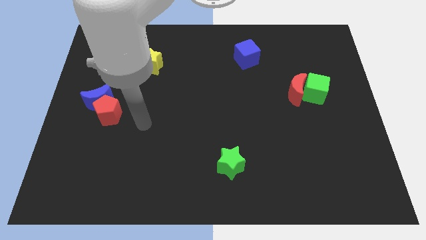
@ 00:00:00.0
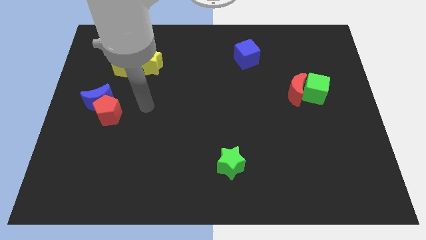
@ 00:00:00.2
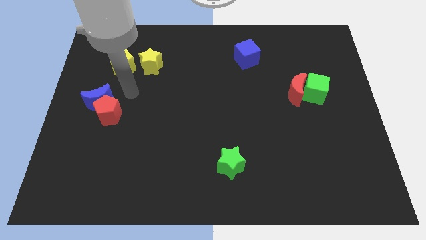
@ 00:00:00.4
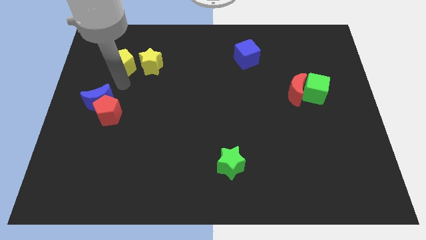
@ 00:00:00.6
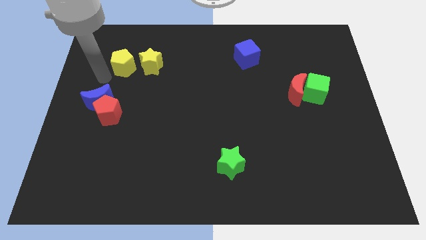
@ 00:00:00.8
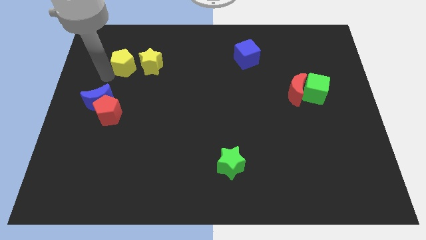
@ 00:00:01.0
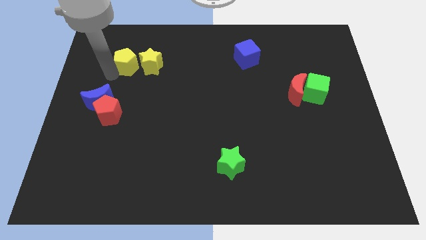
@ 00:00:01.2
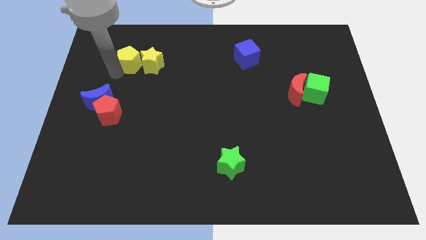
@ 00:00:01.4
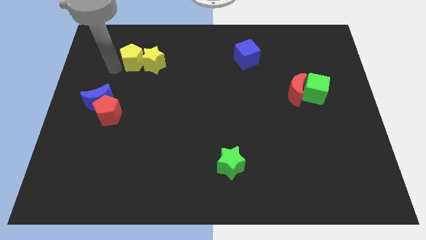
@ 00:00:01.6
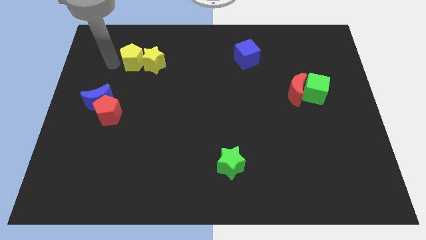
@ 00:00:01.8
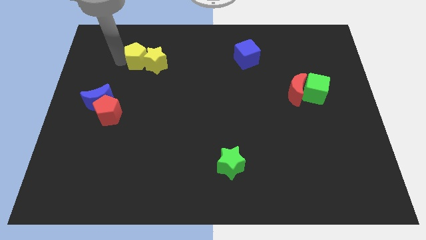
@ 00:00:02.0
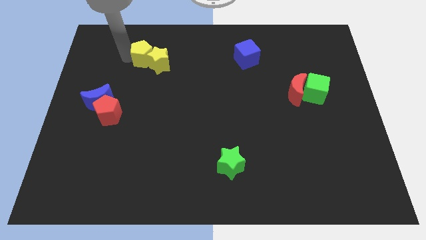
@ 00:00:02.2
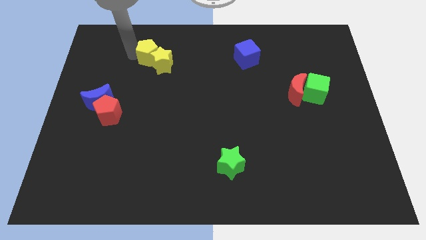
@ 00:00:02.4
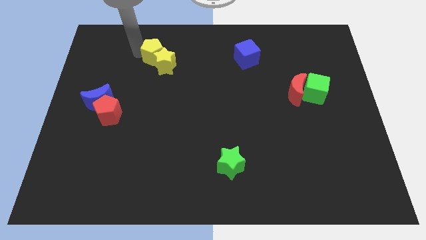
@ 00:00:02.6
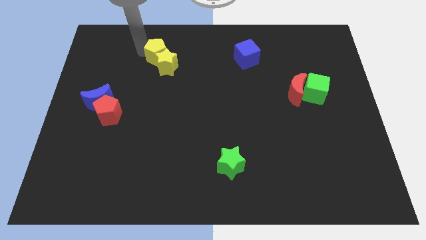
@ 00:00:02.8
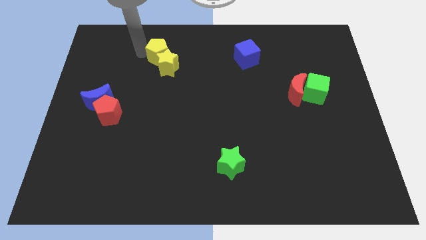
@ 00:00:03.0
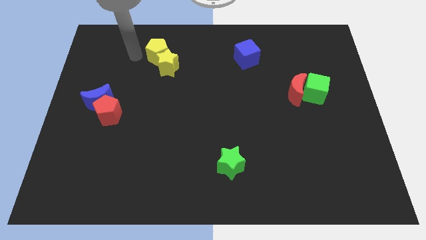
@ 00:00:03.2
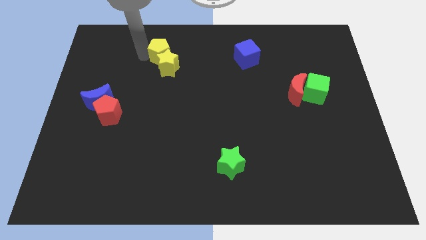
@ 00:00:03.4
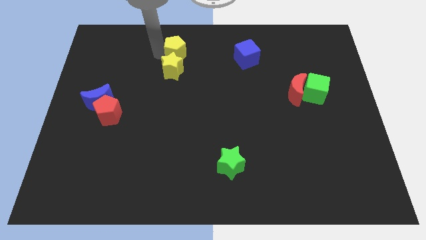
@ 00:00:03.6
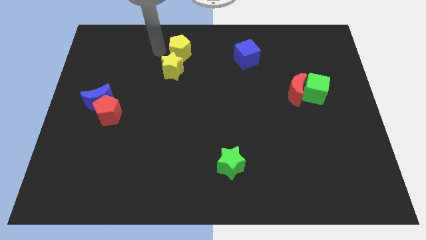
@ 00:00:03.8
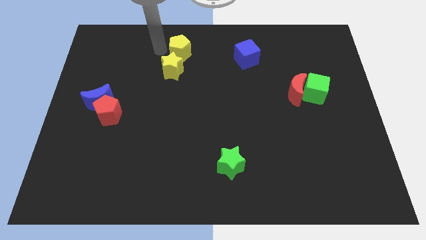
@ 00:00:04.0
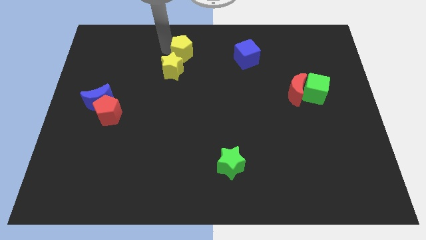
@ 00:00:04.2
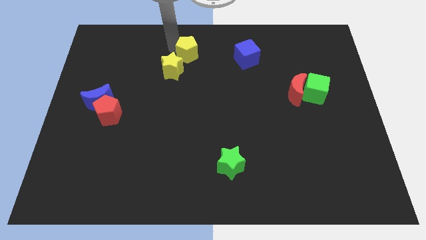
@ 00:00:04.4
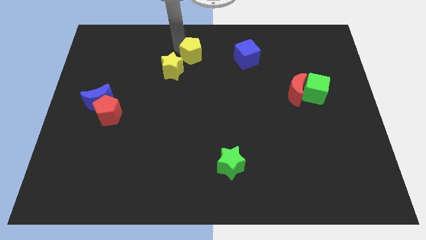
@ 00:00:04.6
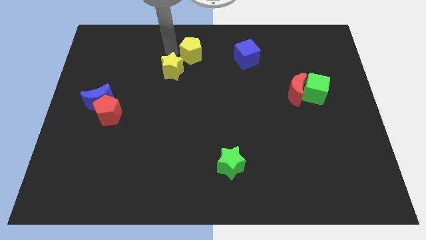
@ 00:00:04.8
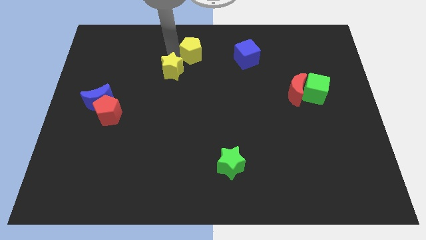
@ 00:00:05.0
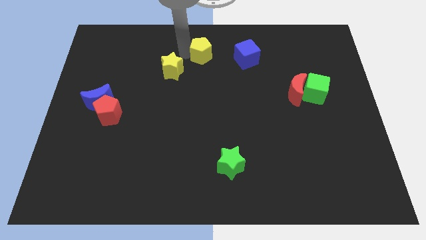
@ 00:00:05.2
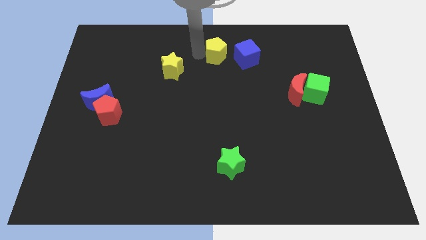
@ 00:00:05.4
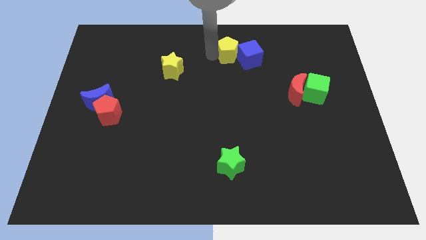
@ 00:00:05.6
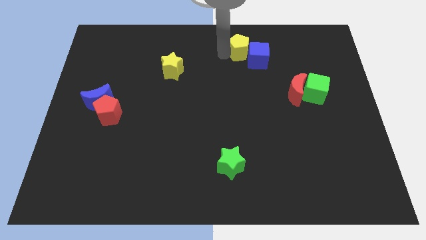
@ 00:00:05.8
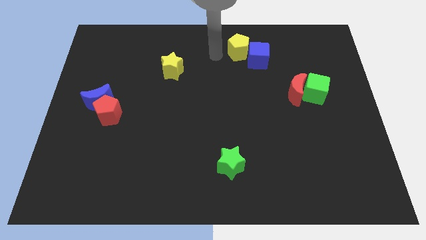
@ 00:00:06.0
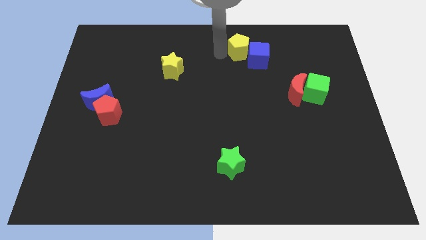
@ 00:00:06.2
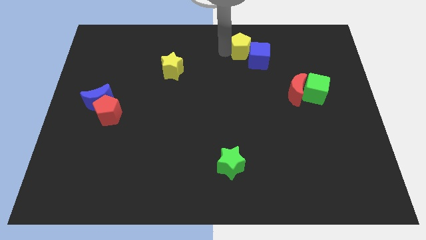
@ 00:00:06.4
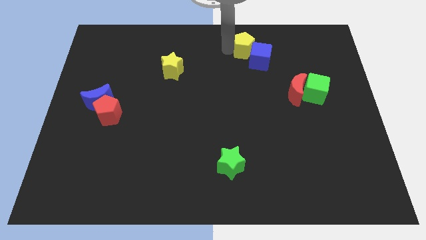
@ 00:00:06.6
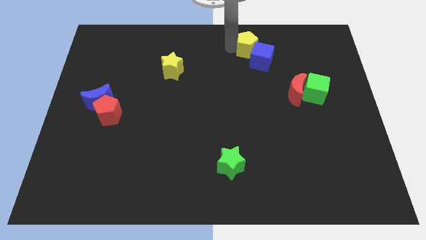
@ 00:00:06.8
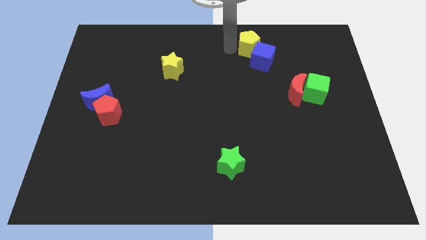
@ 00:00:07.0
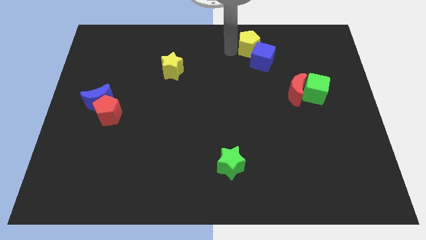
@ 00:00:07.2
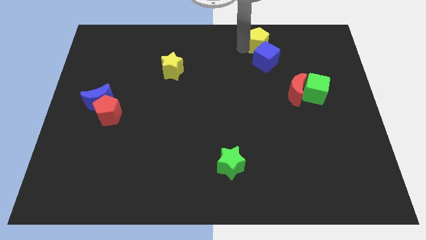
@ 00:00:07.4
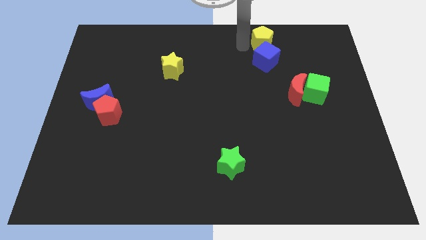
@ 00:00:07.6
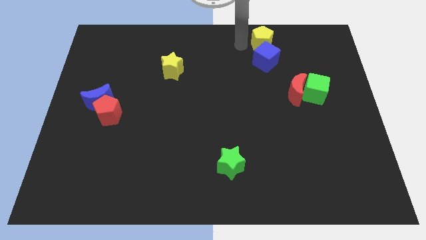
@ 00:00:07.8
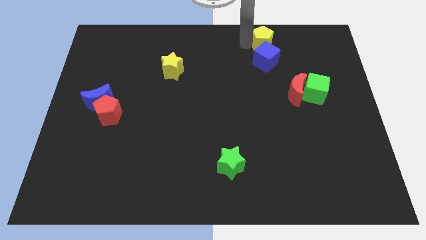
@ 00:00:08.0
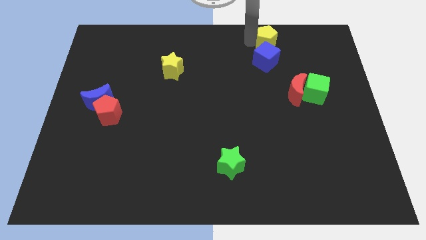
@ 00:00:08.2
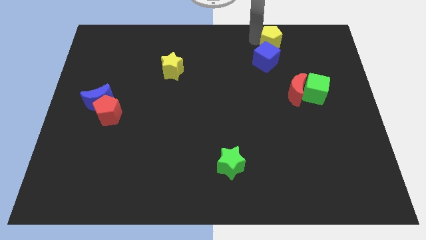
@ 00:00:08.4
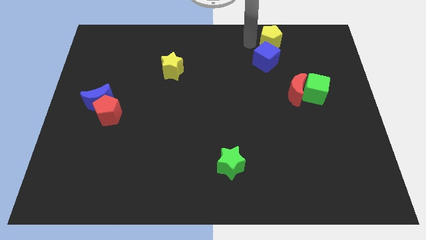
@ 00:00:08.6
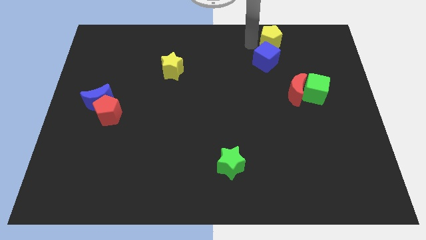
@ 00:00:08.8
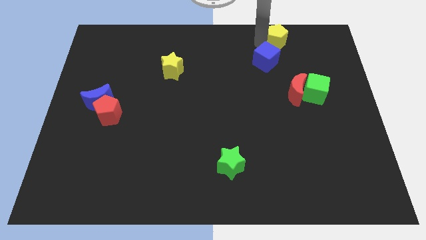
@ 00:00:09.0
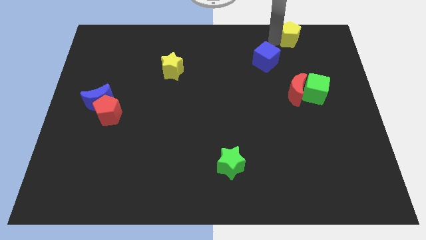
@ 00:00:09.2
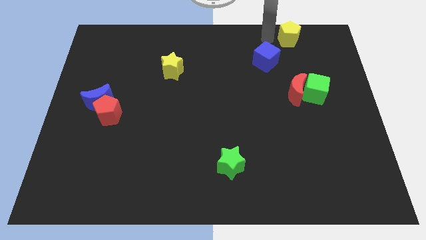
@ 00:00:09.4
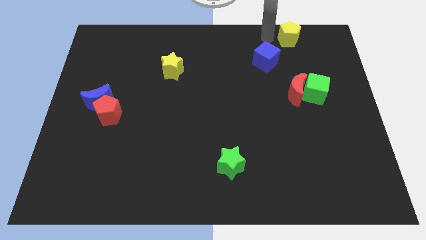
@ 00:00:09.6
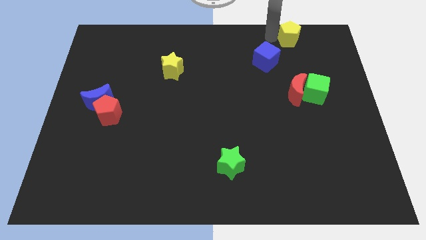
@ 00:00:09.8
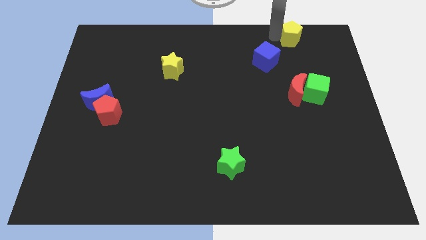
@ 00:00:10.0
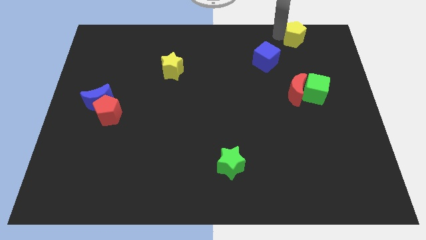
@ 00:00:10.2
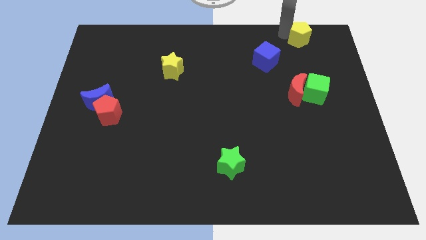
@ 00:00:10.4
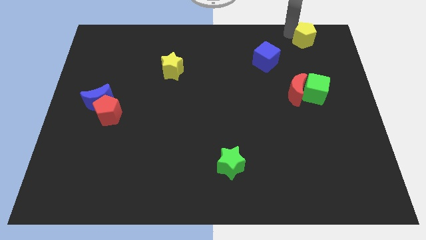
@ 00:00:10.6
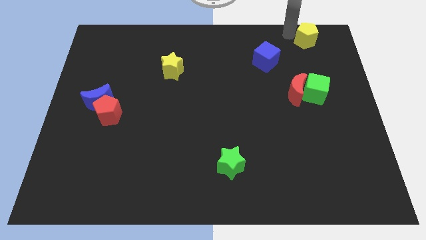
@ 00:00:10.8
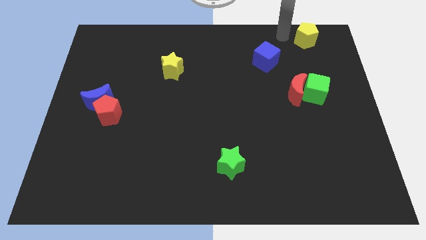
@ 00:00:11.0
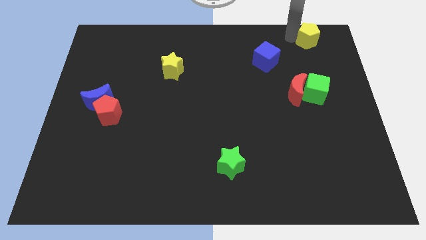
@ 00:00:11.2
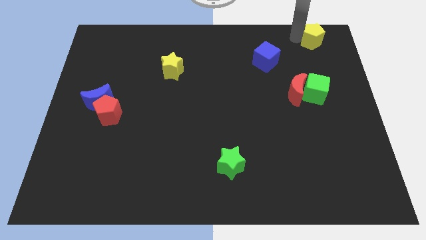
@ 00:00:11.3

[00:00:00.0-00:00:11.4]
put the yellow pentagon to the top right of the board

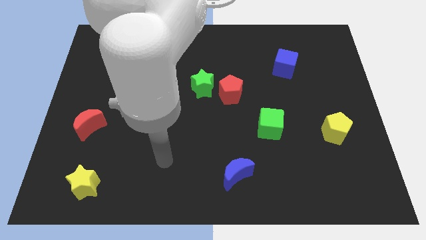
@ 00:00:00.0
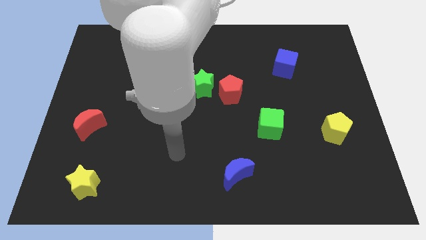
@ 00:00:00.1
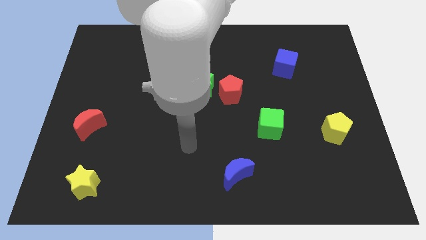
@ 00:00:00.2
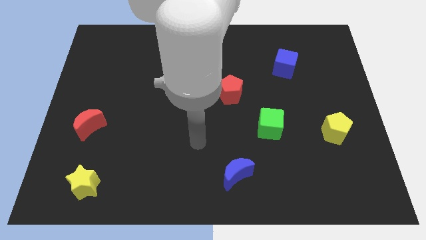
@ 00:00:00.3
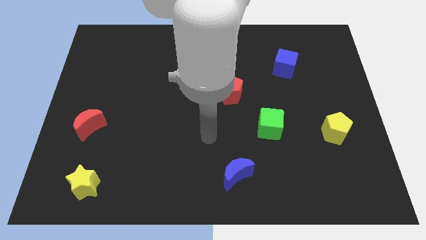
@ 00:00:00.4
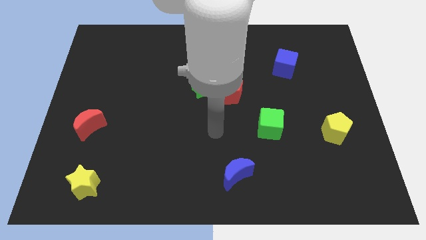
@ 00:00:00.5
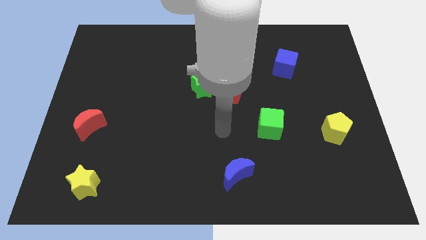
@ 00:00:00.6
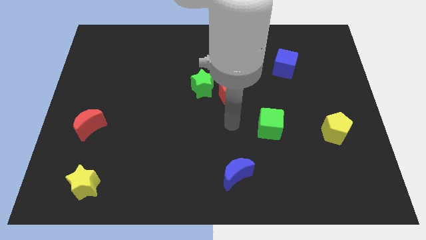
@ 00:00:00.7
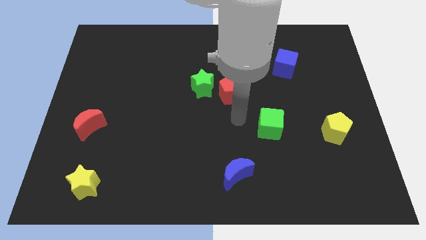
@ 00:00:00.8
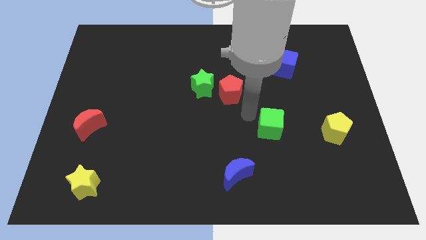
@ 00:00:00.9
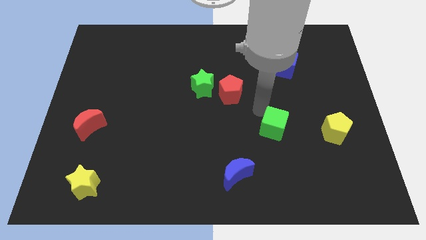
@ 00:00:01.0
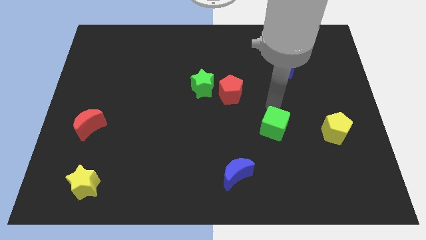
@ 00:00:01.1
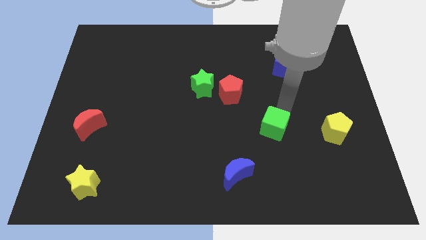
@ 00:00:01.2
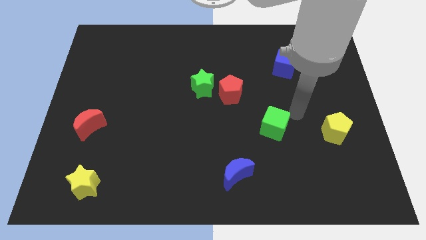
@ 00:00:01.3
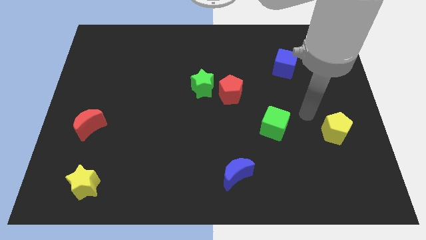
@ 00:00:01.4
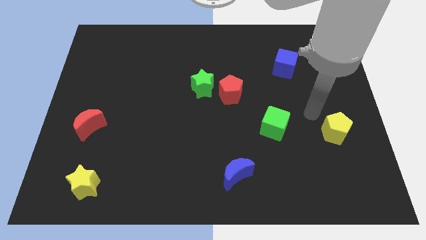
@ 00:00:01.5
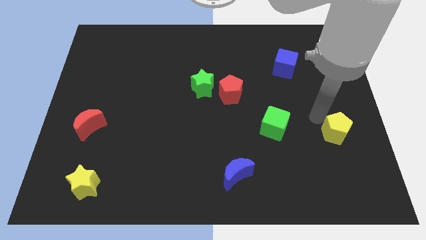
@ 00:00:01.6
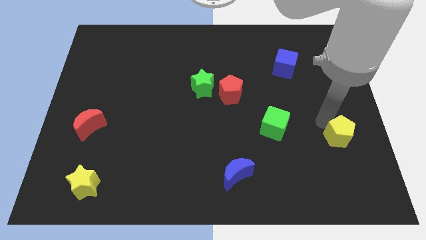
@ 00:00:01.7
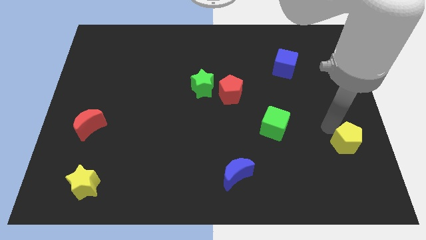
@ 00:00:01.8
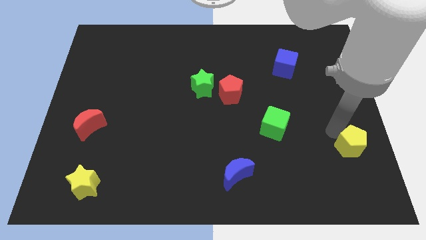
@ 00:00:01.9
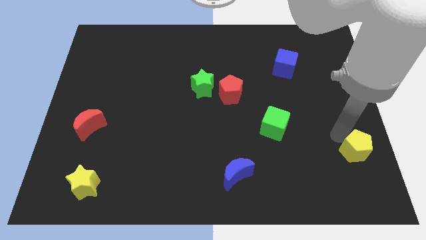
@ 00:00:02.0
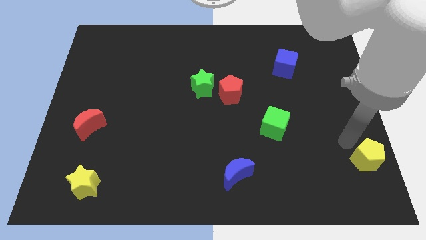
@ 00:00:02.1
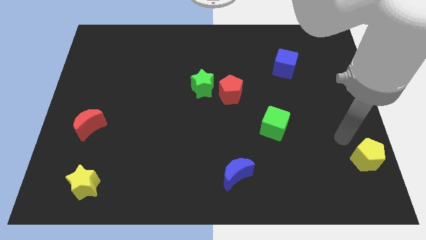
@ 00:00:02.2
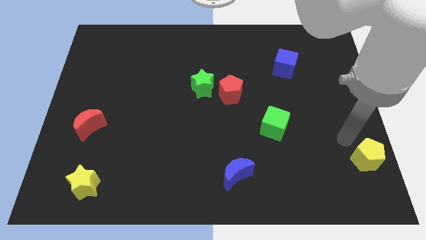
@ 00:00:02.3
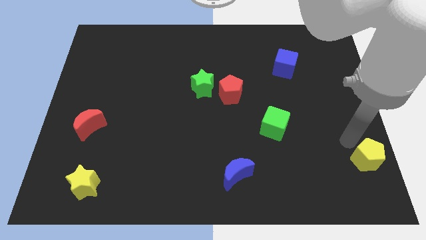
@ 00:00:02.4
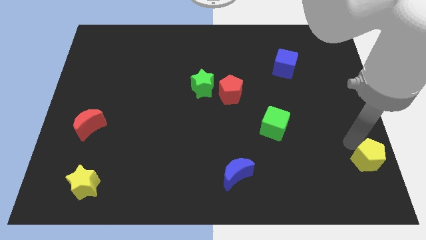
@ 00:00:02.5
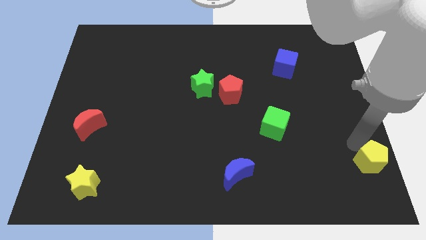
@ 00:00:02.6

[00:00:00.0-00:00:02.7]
push the yellow pentagon to the lower right corner
